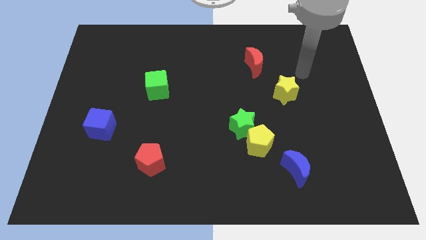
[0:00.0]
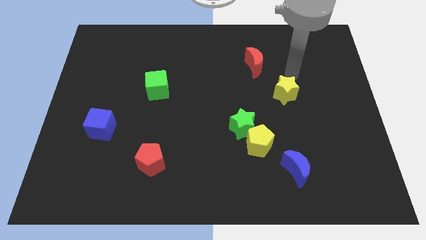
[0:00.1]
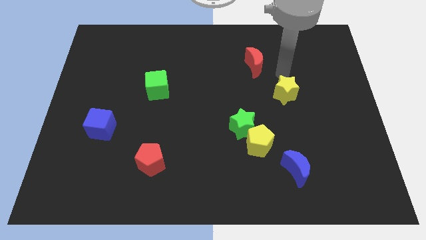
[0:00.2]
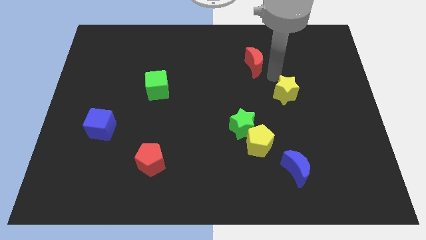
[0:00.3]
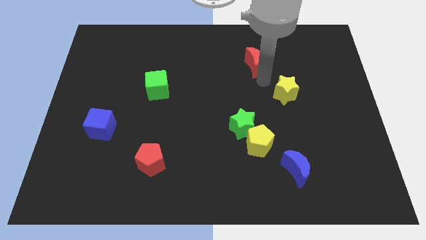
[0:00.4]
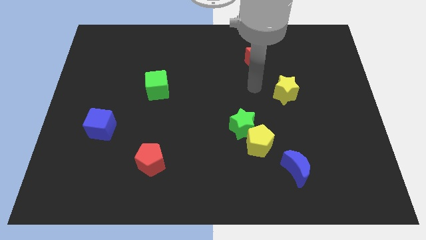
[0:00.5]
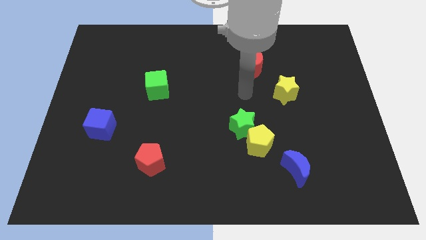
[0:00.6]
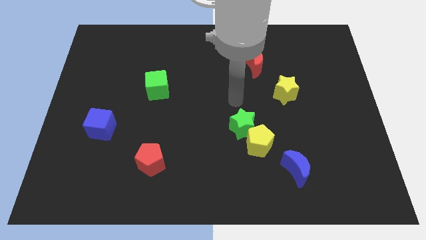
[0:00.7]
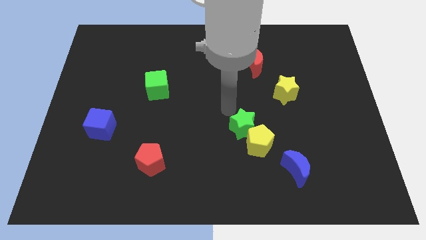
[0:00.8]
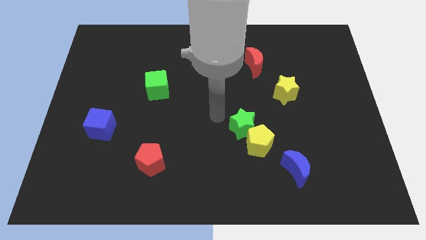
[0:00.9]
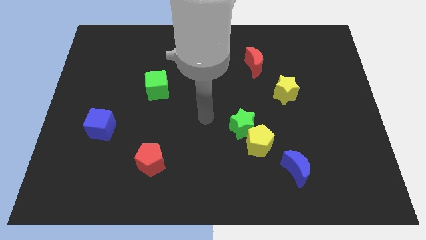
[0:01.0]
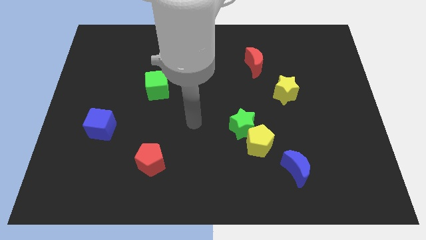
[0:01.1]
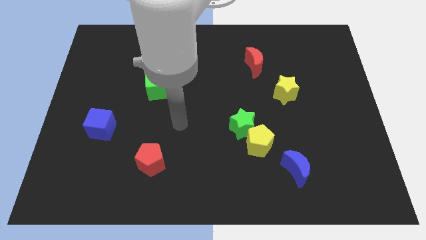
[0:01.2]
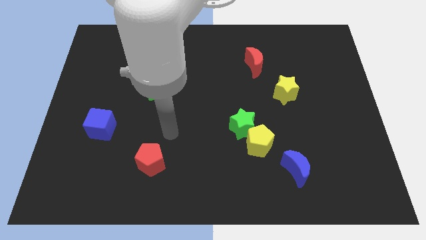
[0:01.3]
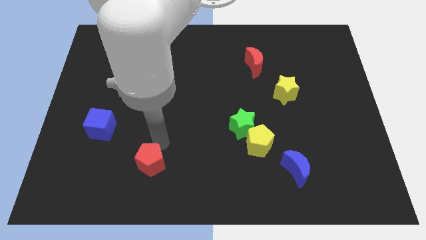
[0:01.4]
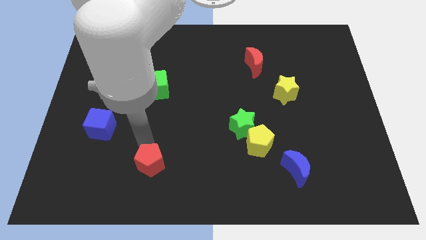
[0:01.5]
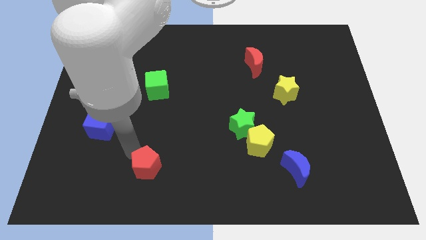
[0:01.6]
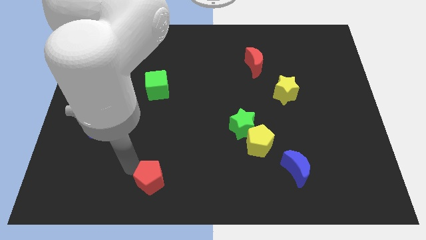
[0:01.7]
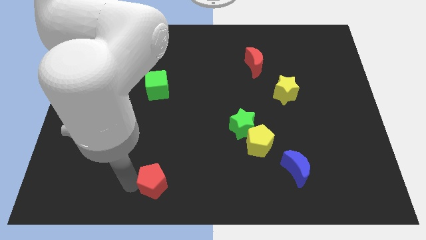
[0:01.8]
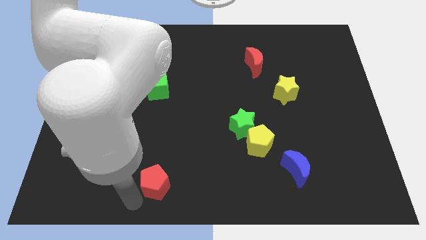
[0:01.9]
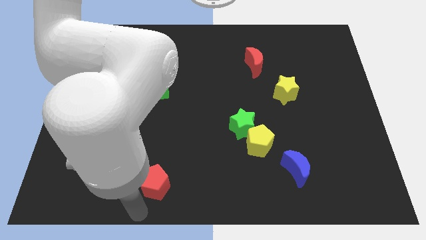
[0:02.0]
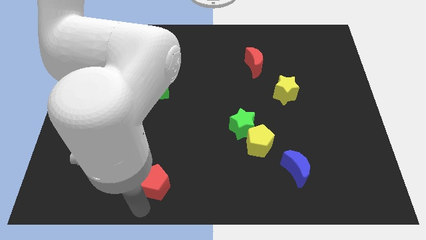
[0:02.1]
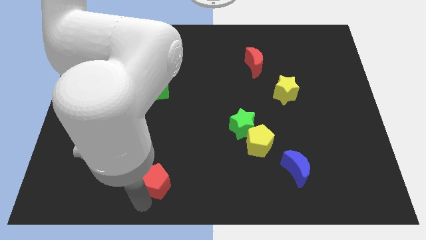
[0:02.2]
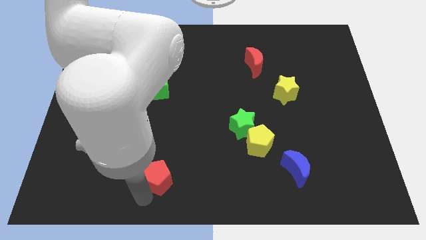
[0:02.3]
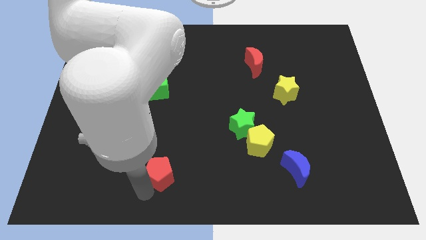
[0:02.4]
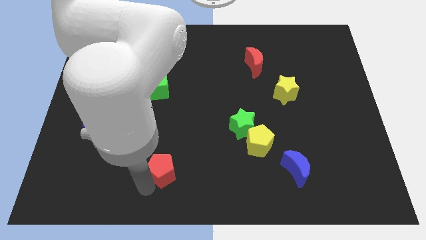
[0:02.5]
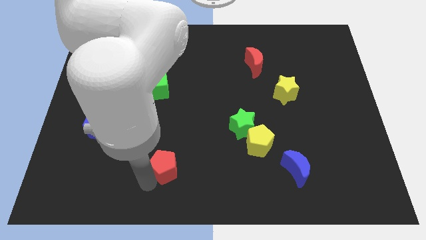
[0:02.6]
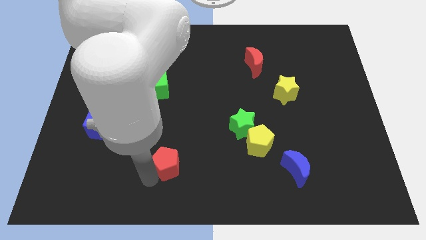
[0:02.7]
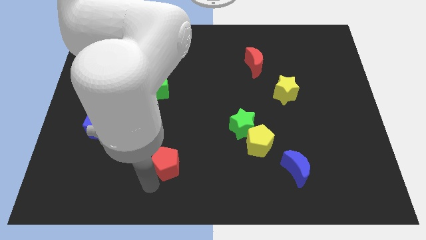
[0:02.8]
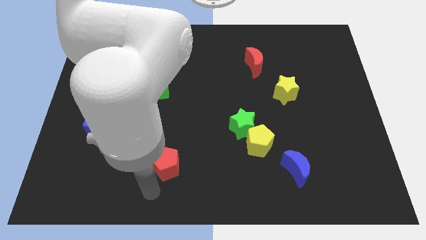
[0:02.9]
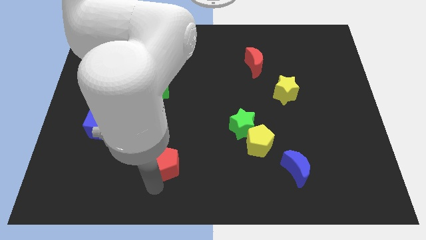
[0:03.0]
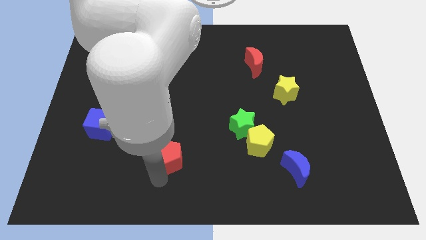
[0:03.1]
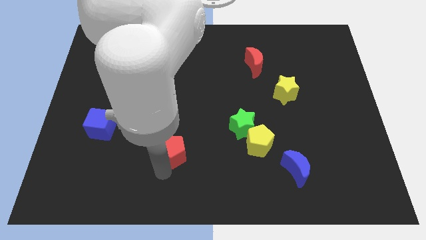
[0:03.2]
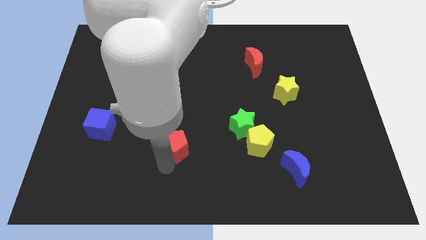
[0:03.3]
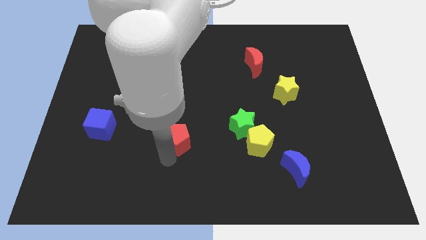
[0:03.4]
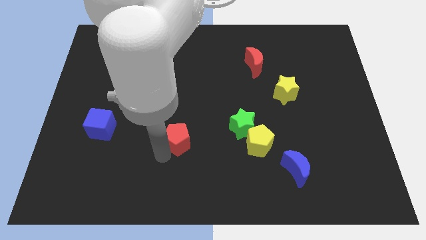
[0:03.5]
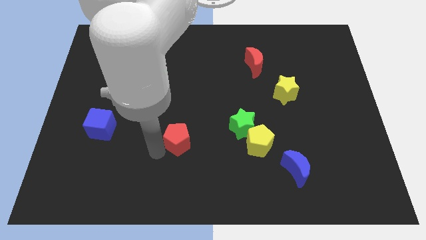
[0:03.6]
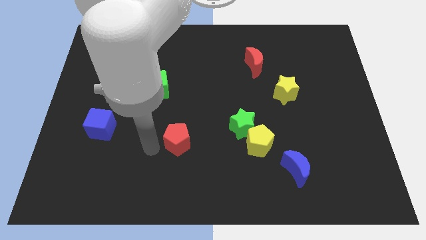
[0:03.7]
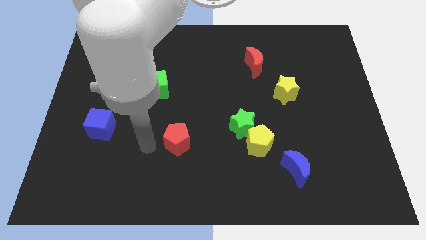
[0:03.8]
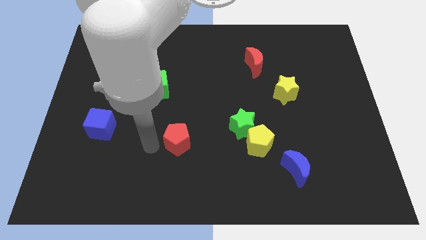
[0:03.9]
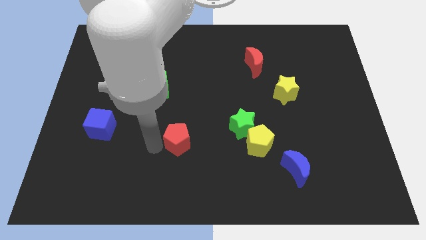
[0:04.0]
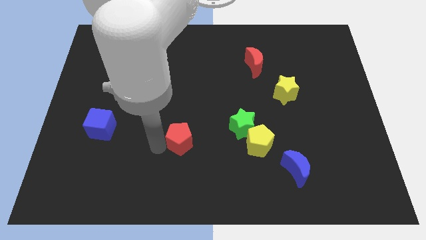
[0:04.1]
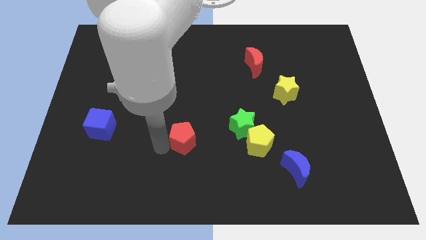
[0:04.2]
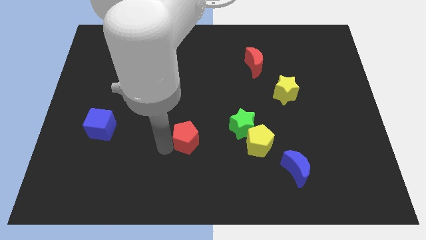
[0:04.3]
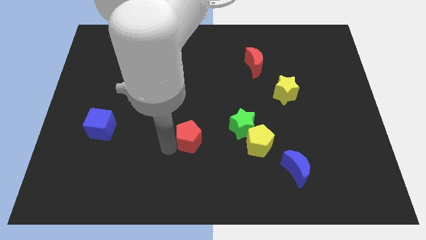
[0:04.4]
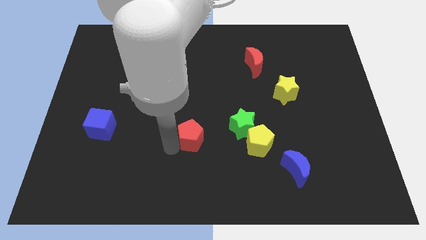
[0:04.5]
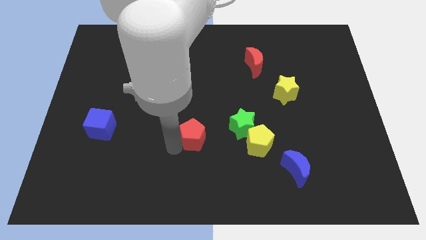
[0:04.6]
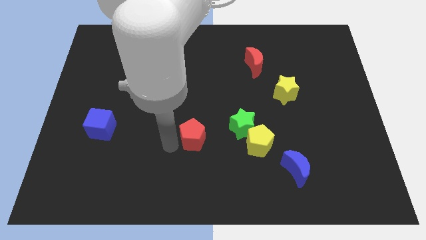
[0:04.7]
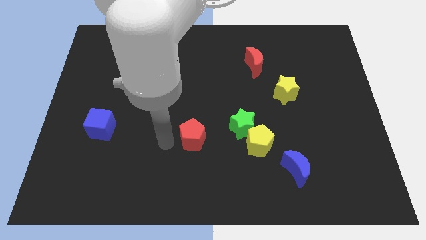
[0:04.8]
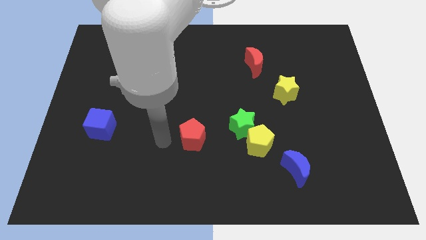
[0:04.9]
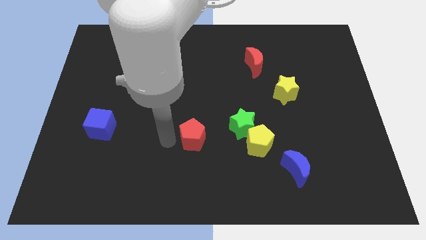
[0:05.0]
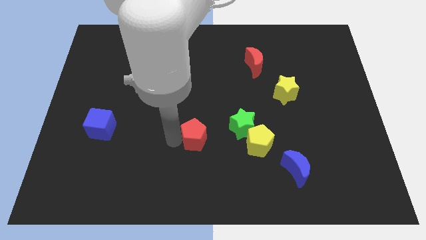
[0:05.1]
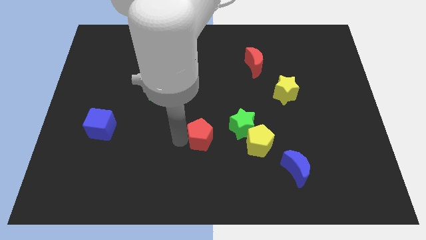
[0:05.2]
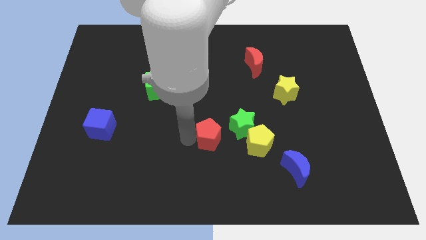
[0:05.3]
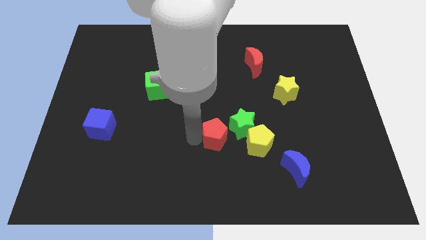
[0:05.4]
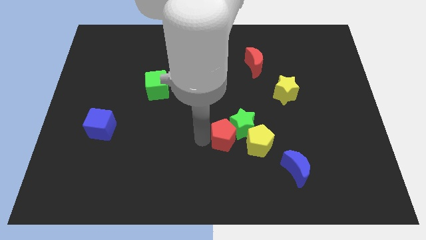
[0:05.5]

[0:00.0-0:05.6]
slide the red pentagon close to the green star

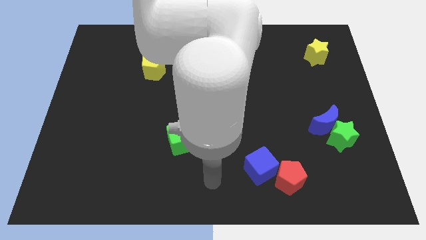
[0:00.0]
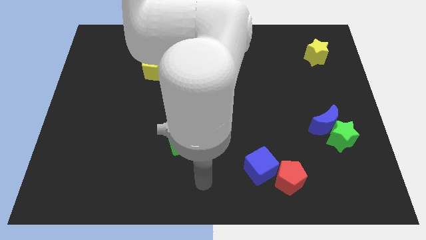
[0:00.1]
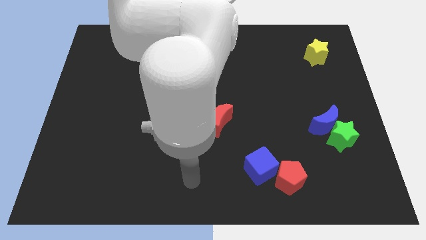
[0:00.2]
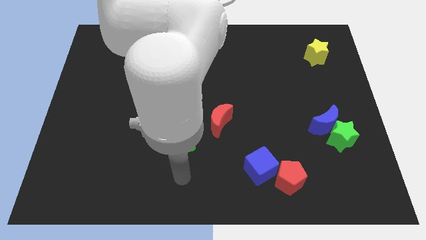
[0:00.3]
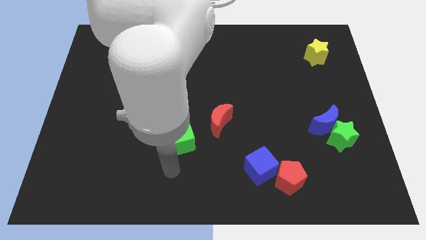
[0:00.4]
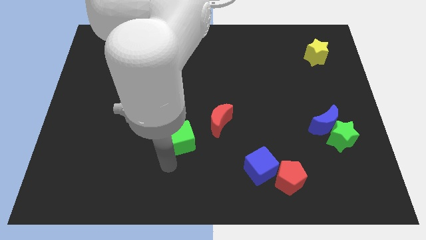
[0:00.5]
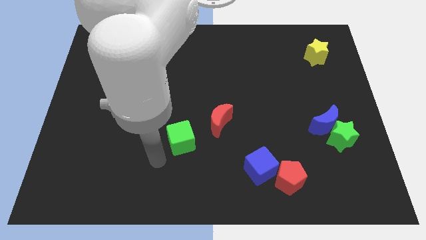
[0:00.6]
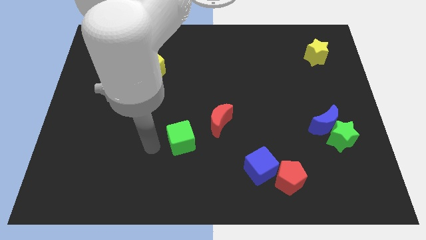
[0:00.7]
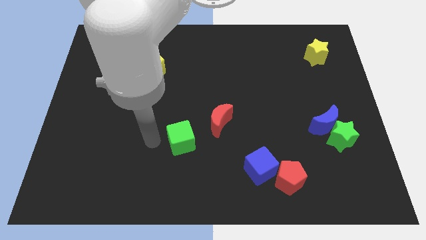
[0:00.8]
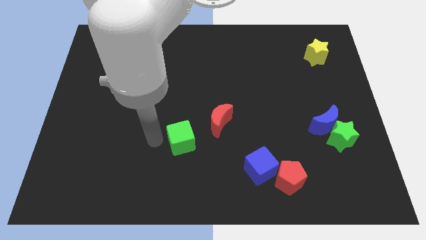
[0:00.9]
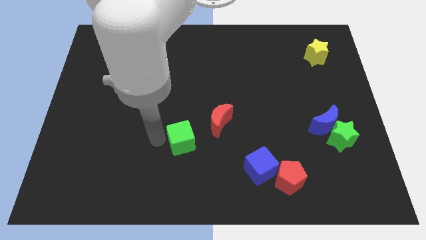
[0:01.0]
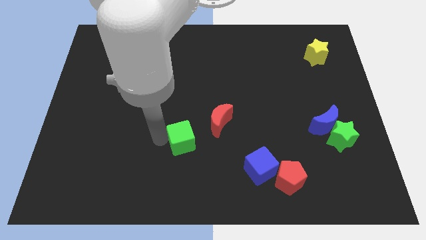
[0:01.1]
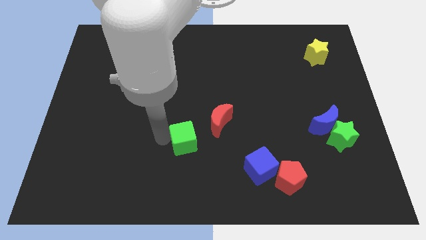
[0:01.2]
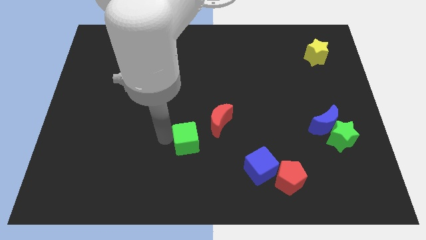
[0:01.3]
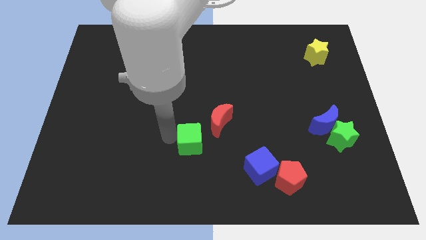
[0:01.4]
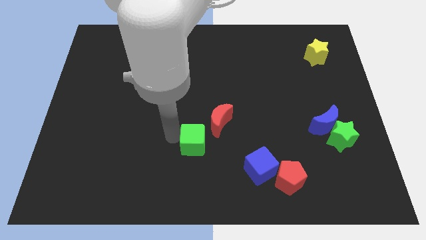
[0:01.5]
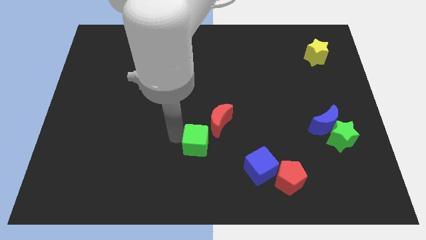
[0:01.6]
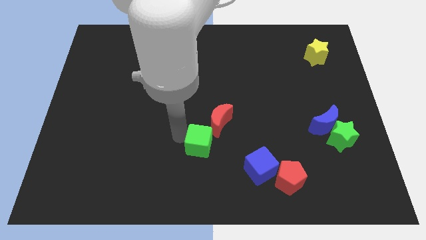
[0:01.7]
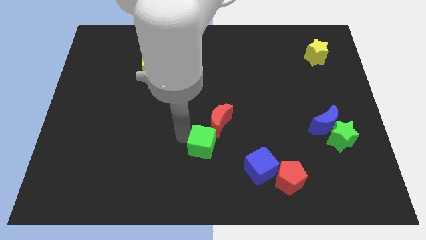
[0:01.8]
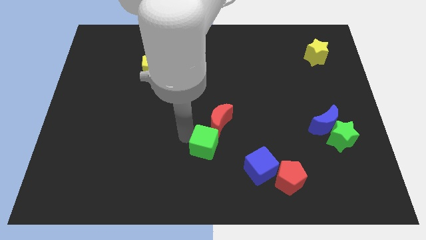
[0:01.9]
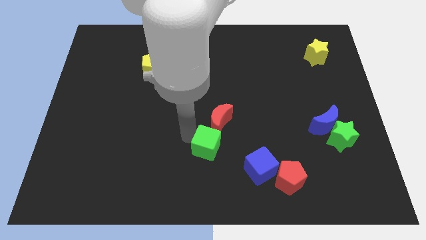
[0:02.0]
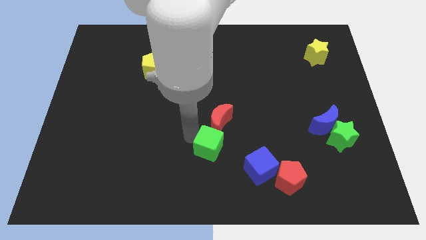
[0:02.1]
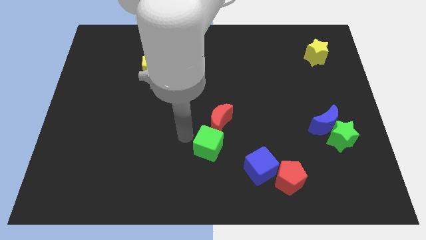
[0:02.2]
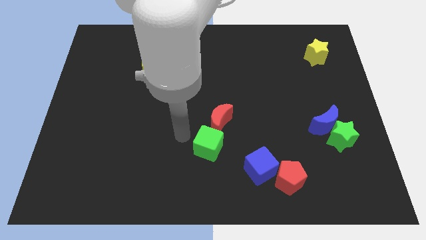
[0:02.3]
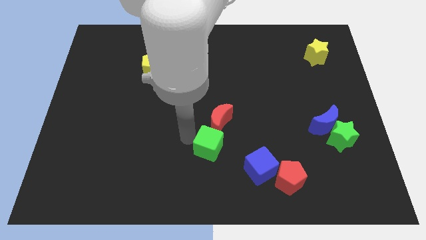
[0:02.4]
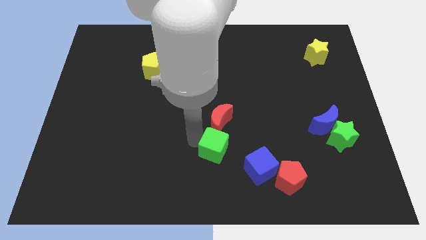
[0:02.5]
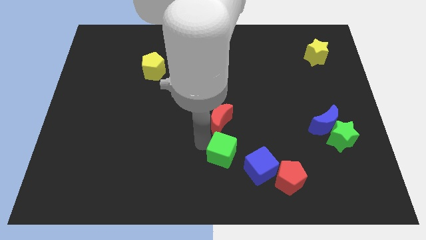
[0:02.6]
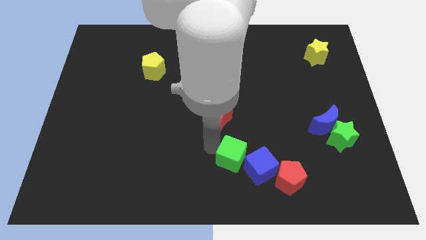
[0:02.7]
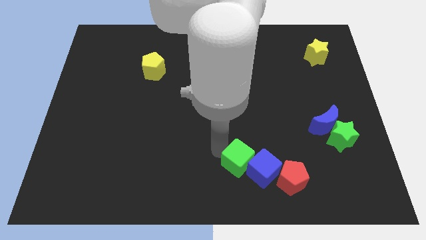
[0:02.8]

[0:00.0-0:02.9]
move the green cube close to the blue cube
